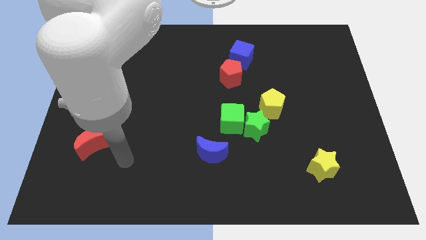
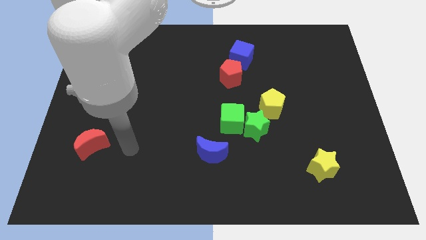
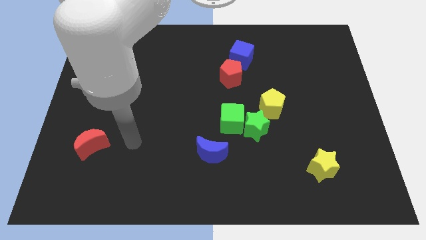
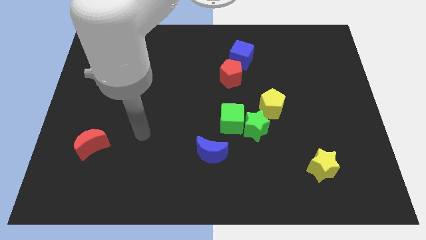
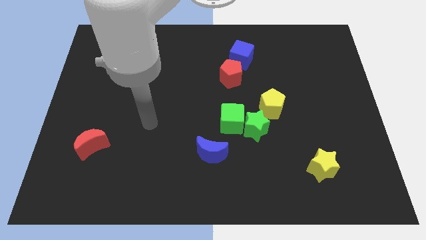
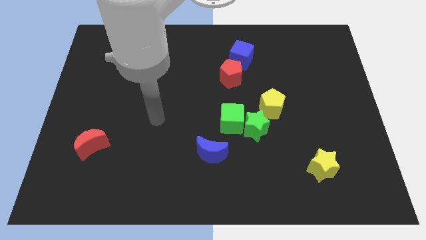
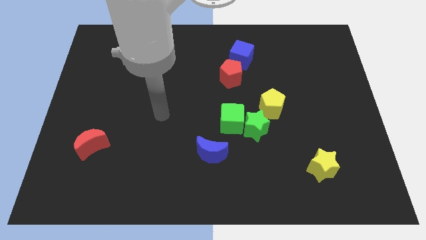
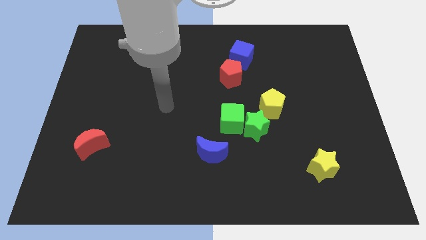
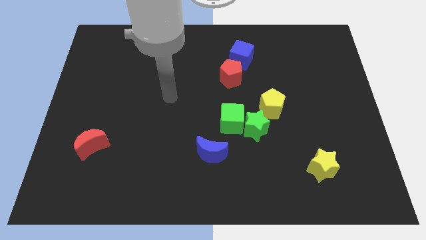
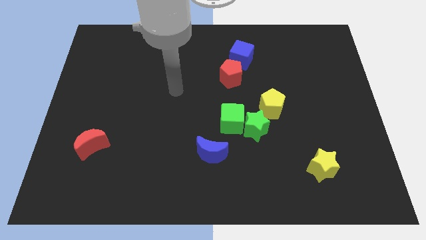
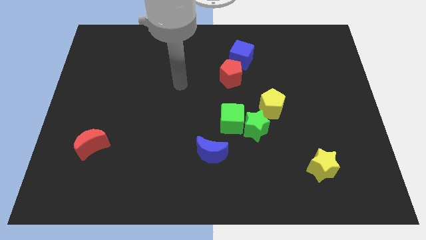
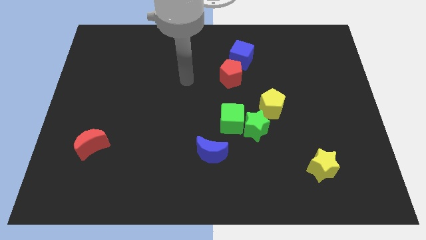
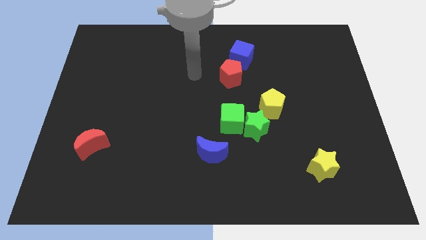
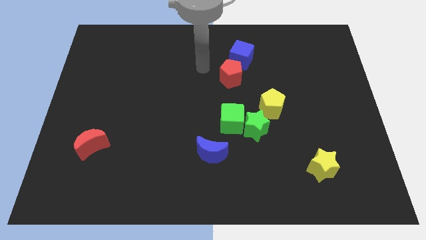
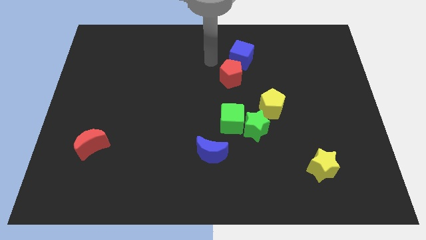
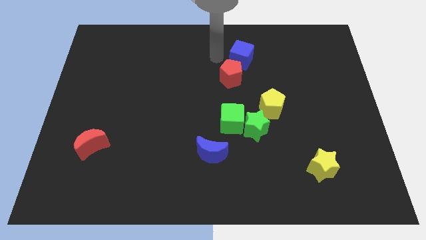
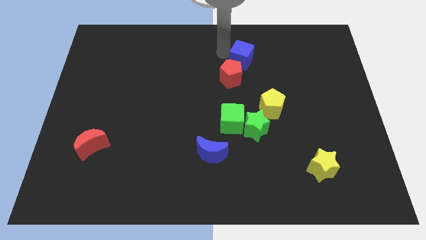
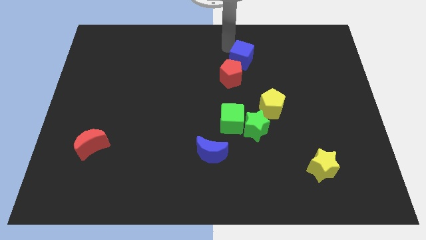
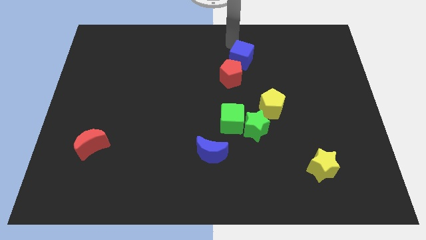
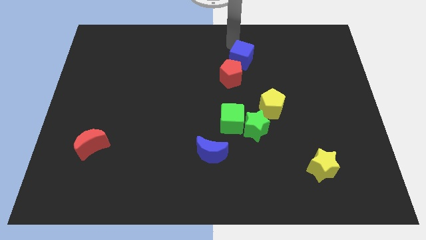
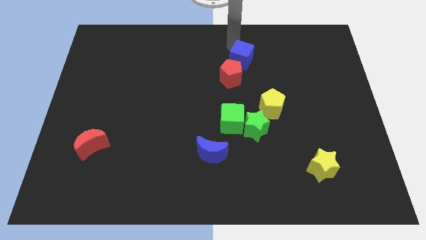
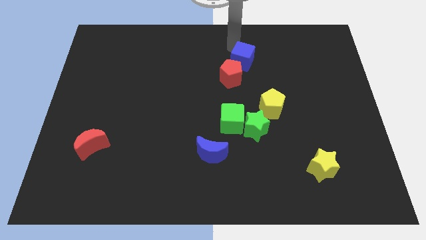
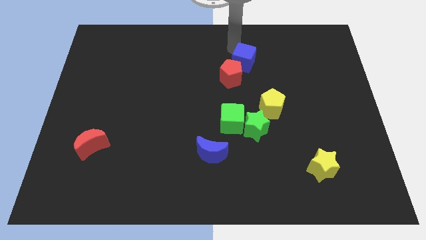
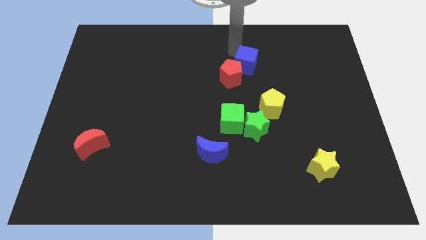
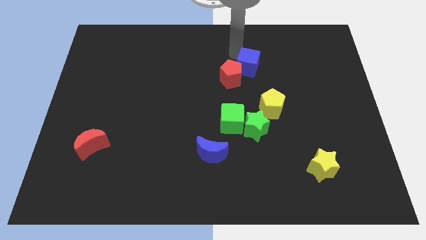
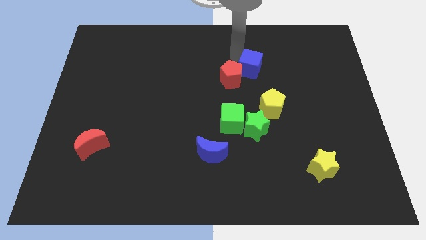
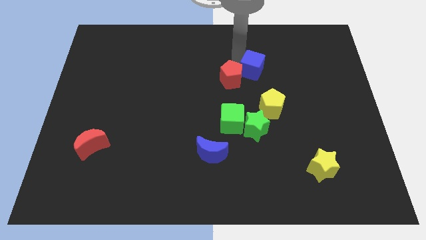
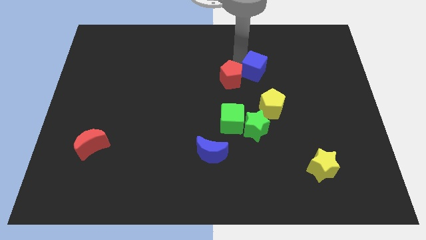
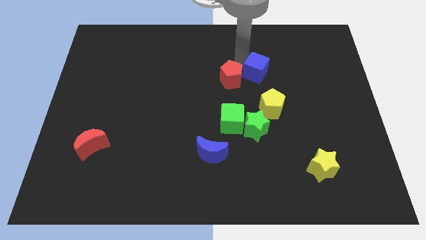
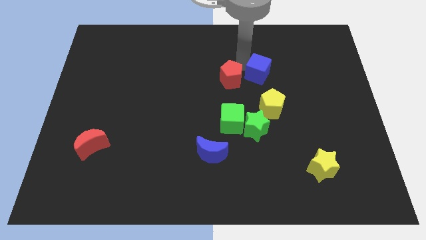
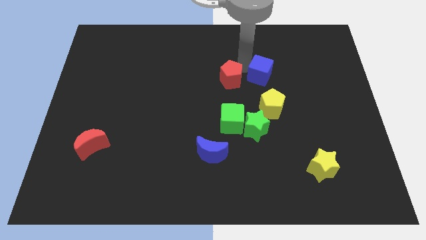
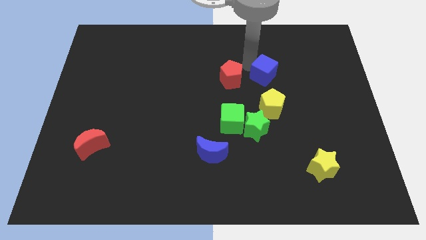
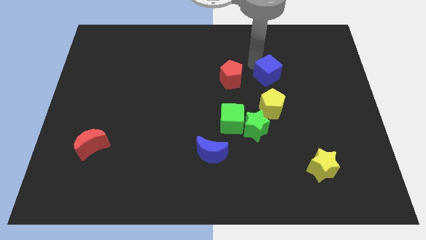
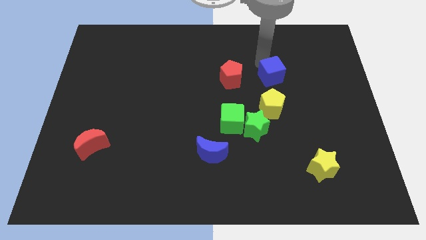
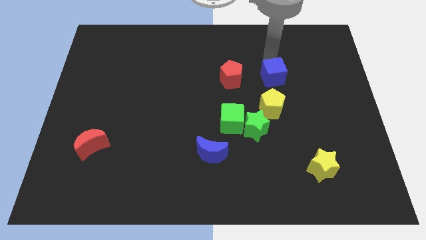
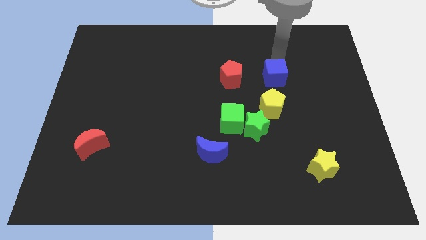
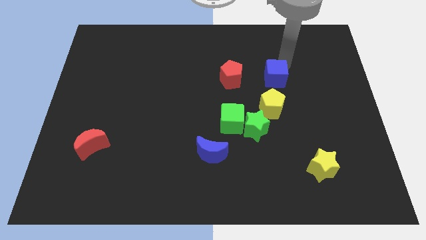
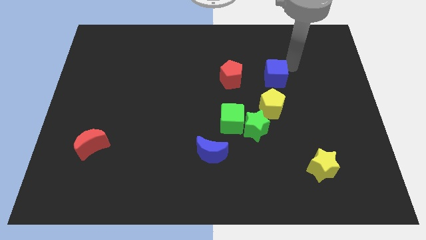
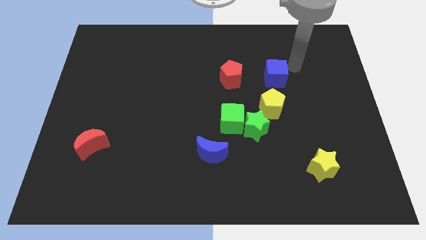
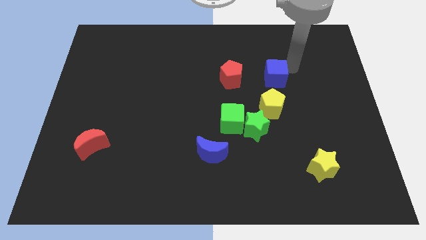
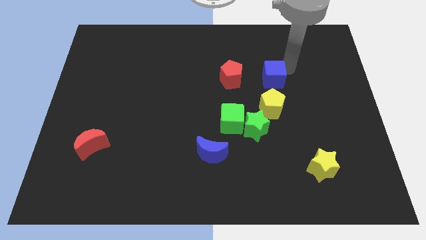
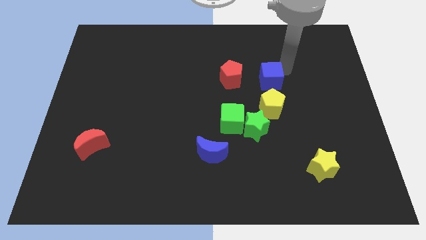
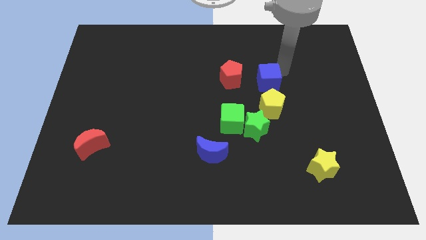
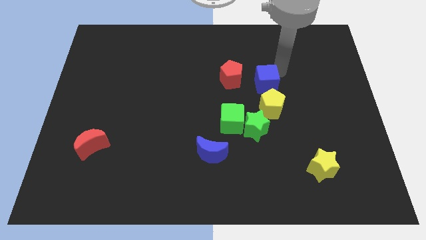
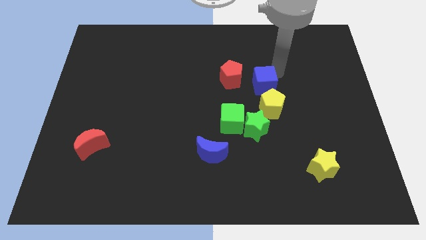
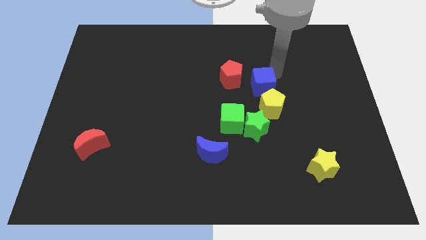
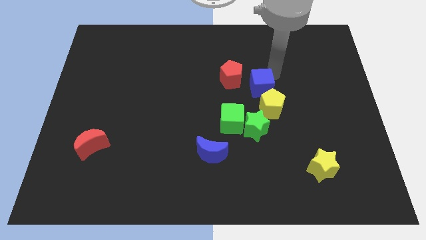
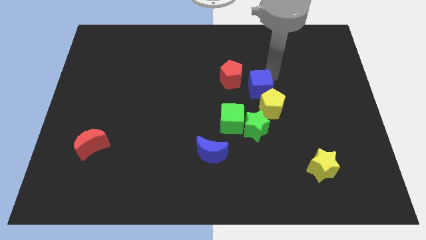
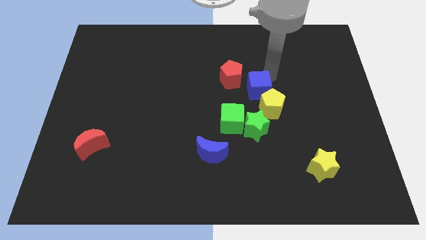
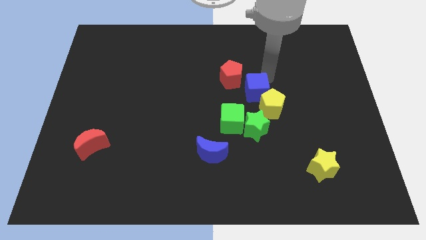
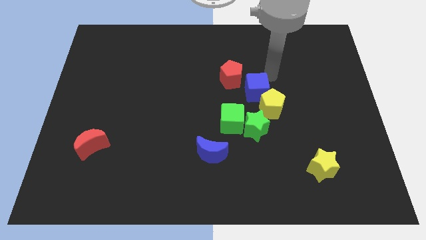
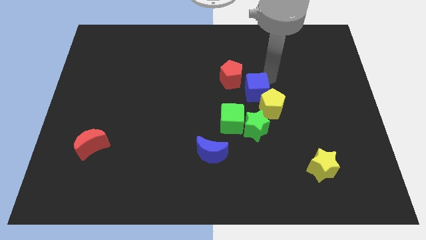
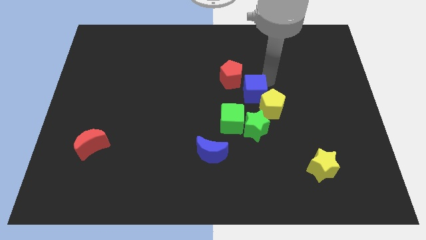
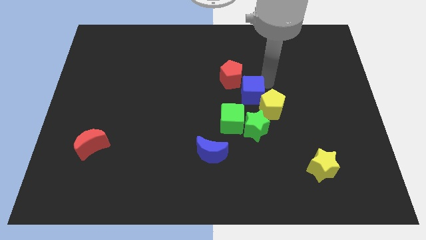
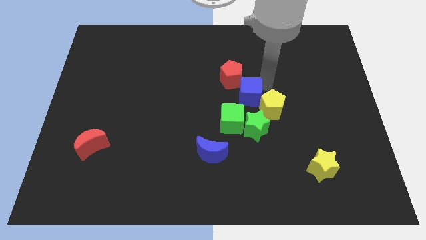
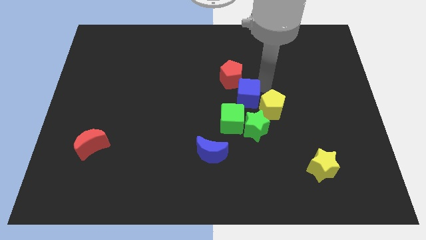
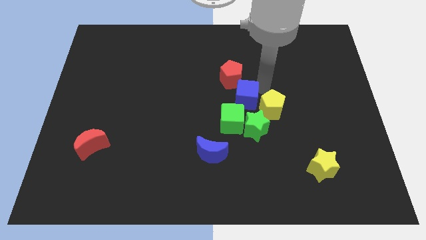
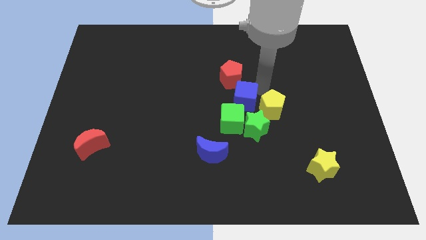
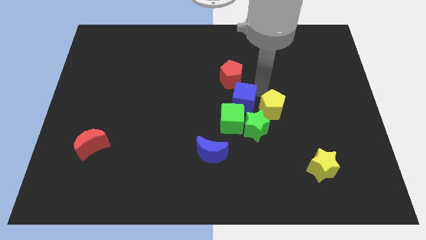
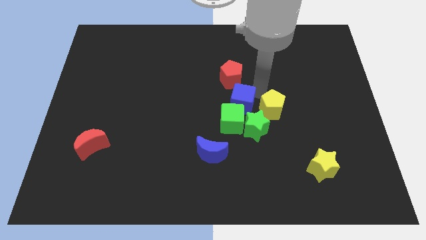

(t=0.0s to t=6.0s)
move the blue cube to the green cube

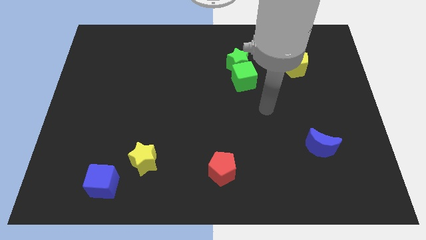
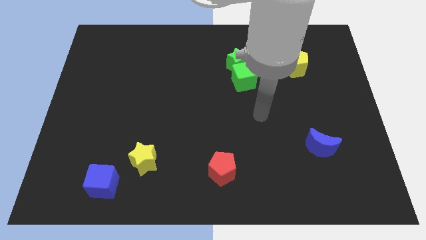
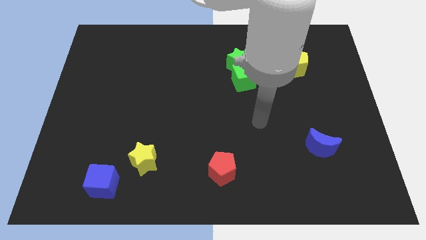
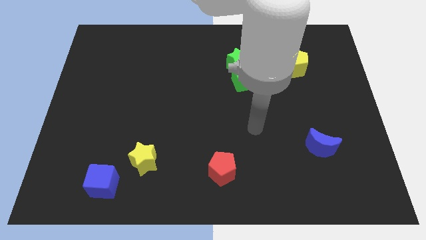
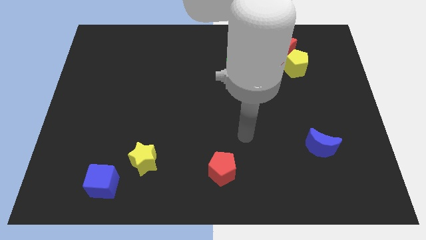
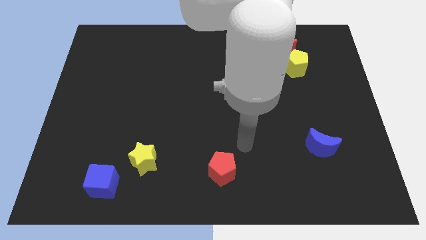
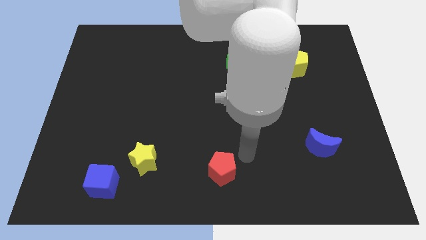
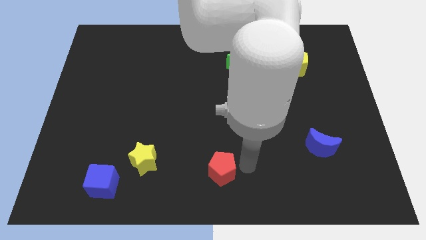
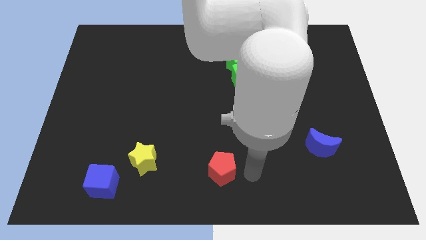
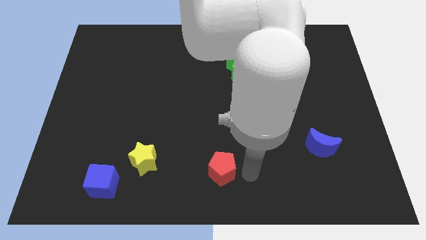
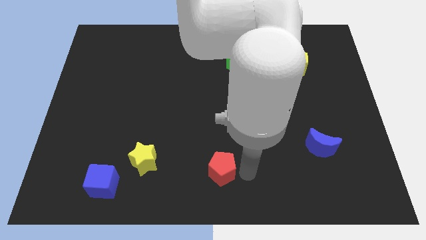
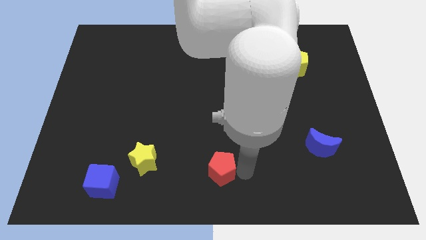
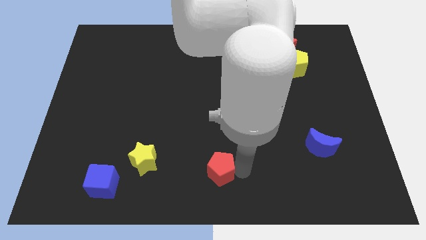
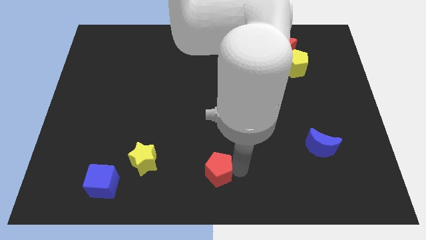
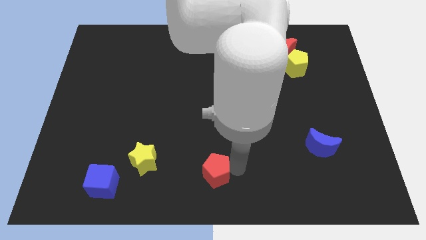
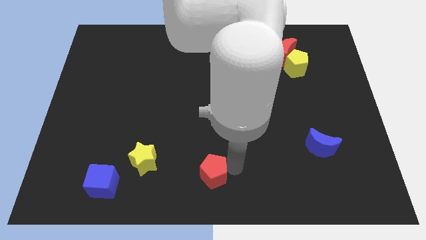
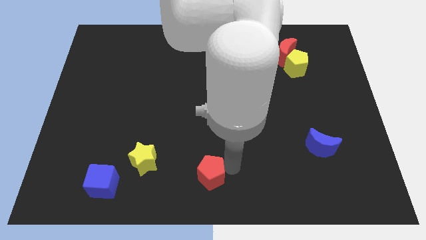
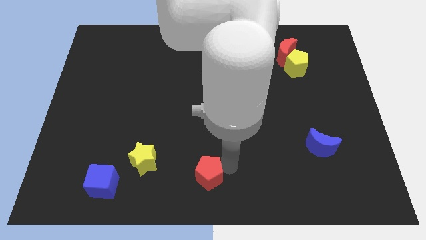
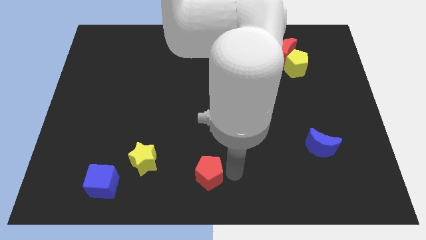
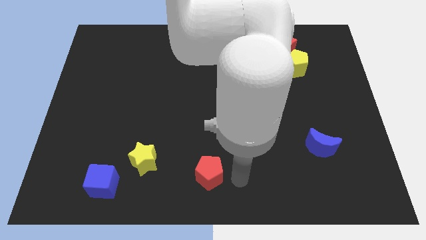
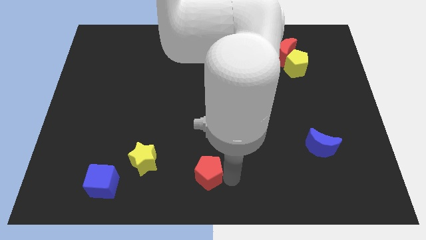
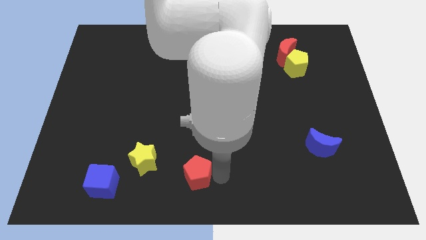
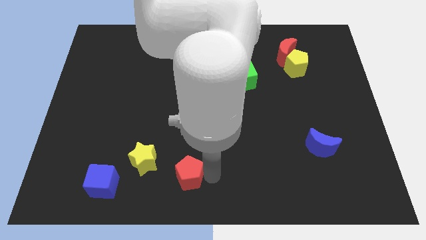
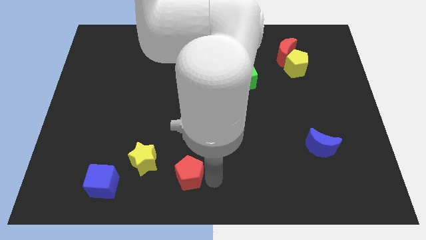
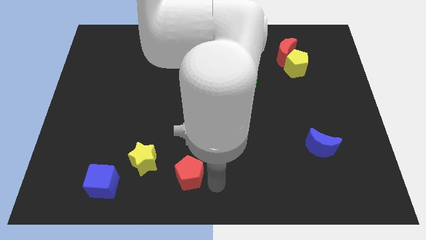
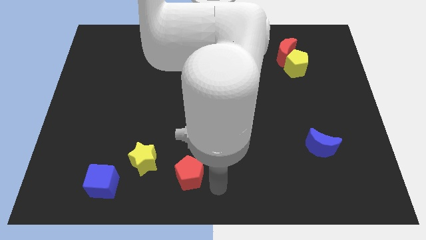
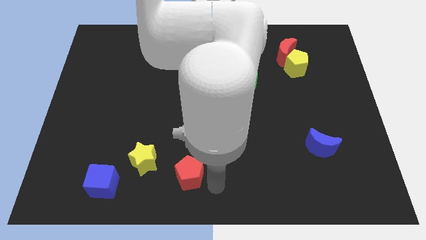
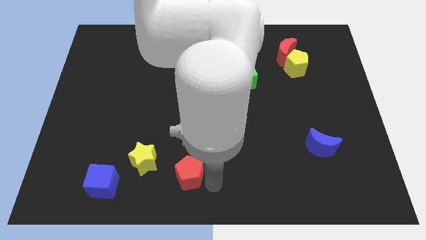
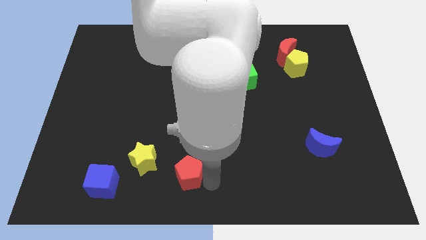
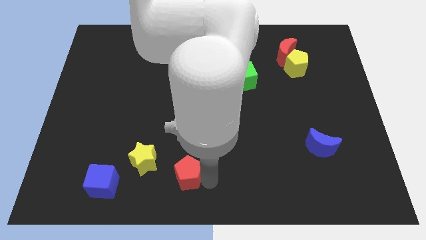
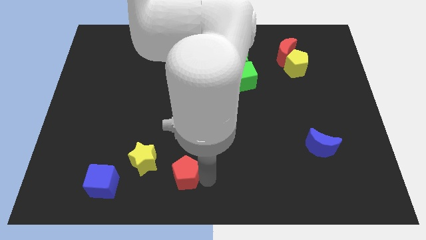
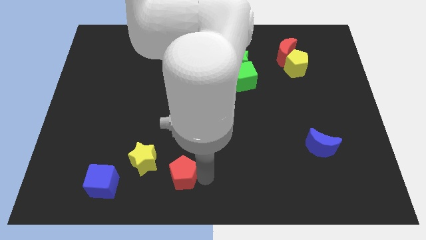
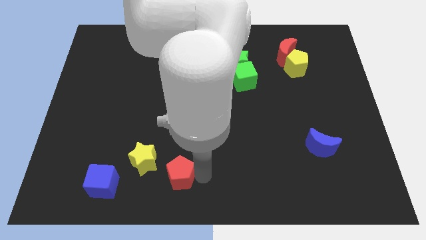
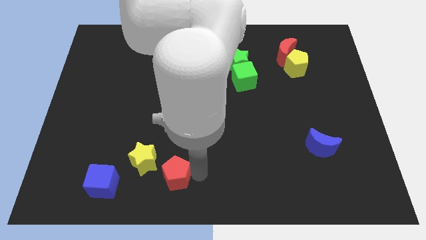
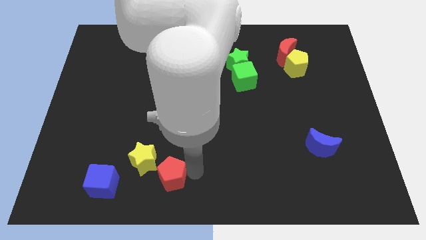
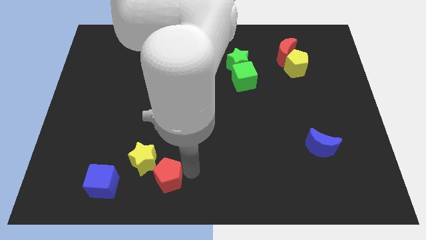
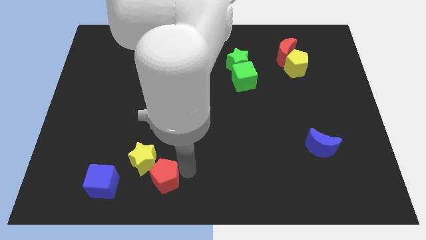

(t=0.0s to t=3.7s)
put the red pentagon to the yellow star
